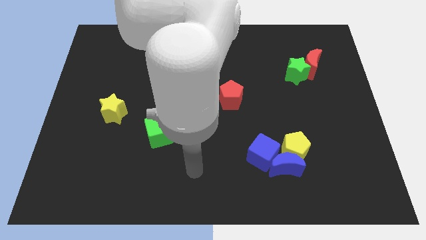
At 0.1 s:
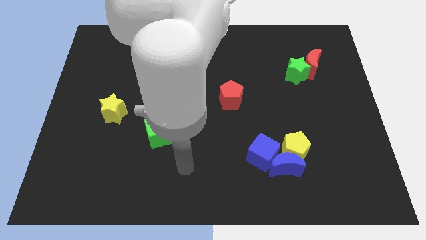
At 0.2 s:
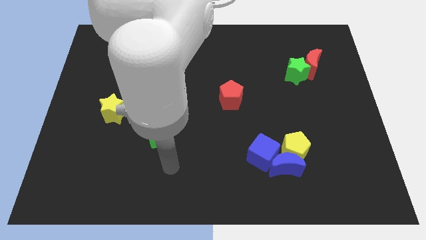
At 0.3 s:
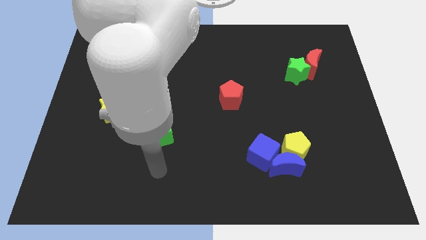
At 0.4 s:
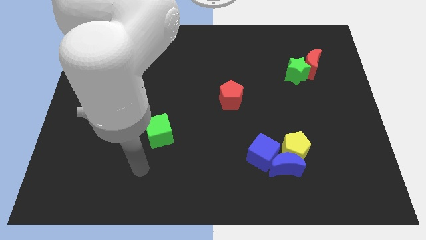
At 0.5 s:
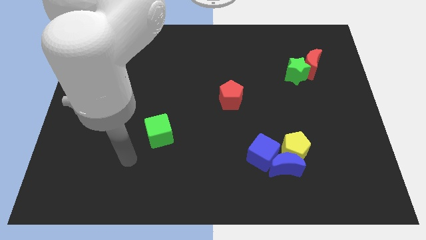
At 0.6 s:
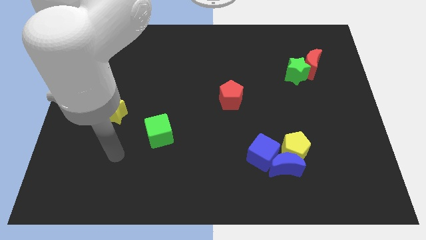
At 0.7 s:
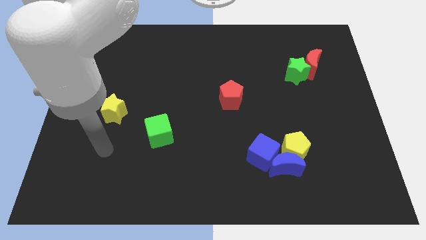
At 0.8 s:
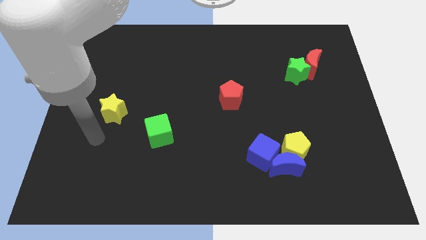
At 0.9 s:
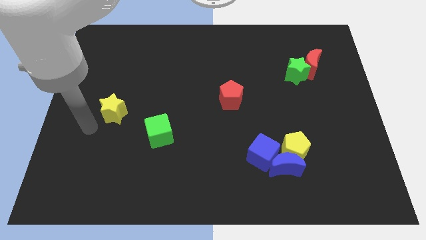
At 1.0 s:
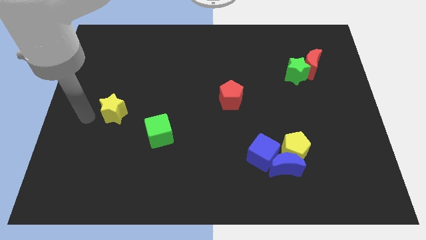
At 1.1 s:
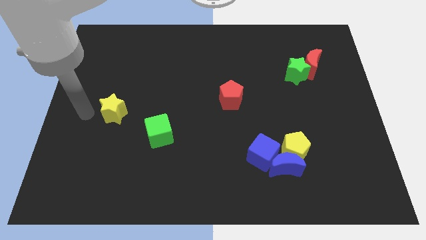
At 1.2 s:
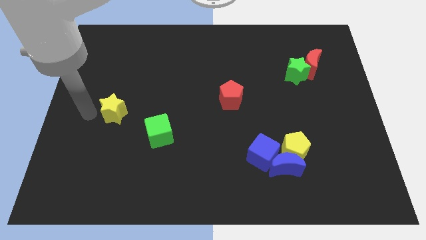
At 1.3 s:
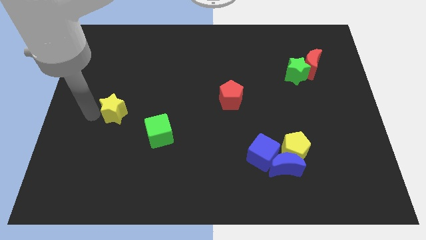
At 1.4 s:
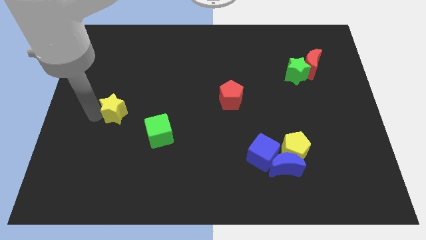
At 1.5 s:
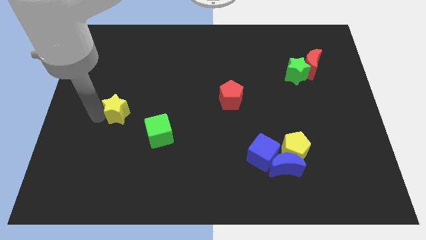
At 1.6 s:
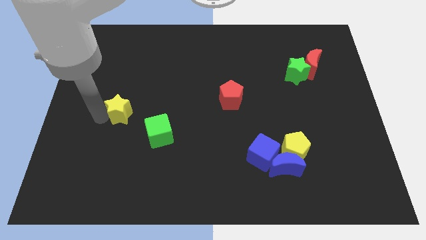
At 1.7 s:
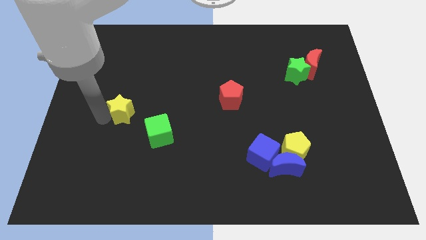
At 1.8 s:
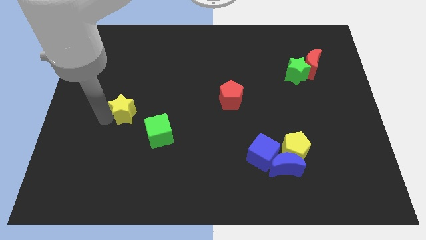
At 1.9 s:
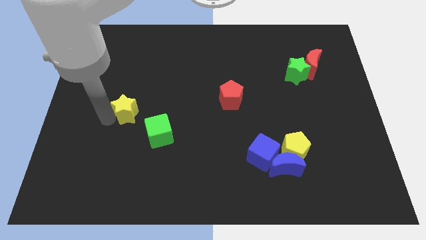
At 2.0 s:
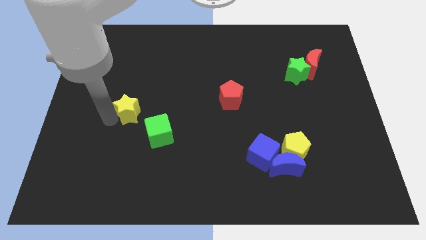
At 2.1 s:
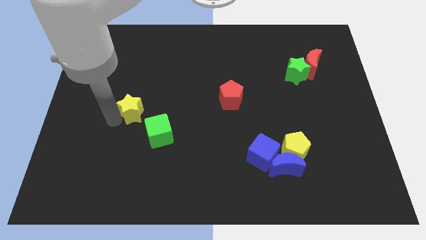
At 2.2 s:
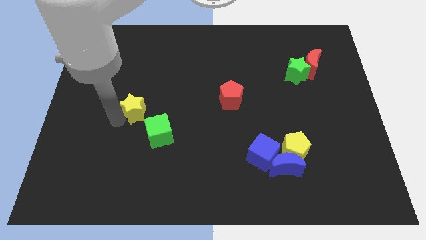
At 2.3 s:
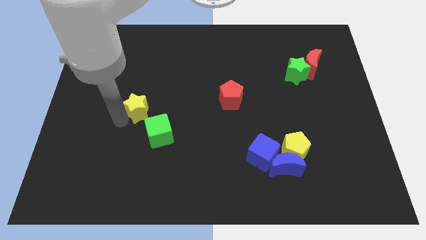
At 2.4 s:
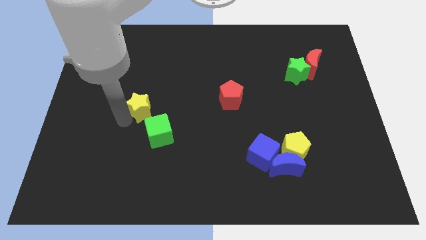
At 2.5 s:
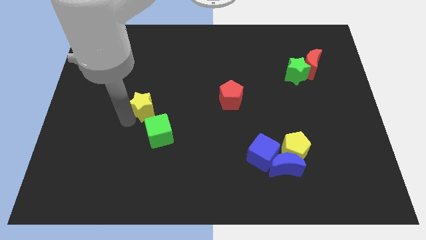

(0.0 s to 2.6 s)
push the yellow star right slightly

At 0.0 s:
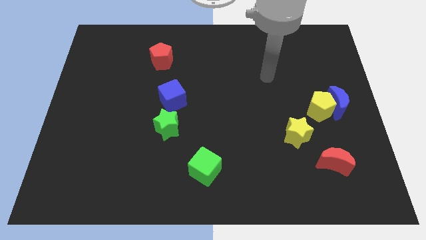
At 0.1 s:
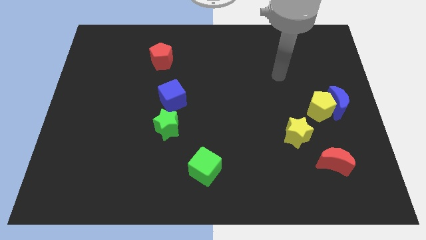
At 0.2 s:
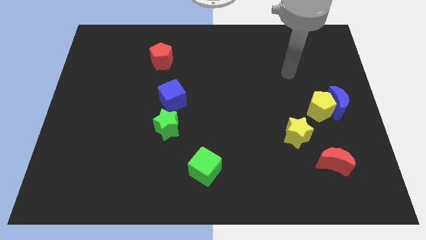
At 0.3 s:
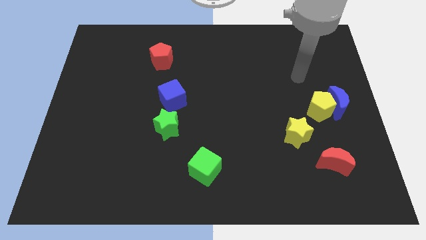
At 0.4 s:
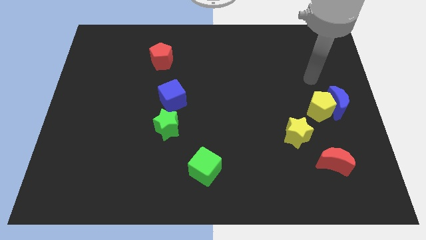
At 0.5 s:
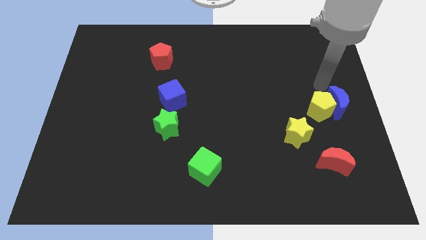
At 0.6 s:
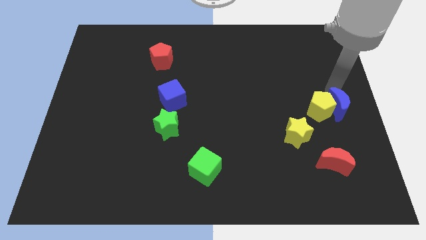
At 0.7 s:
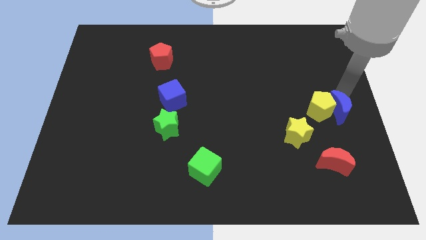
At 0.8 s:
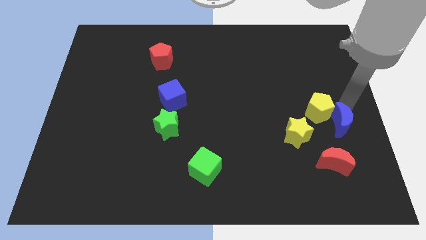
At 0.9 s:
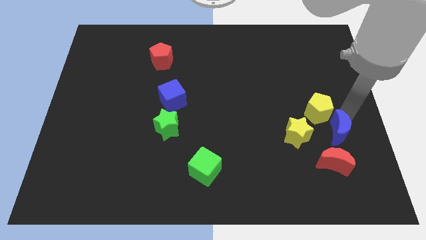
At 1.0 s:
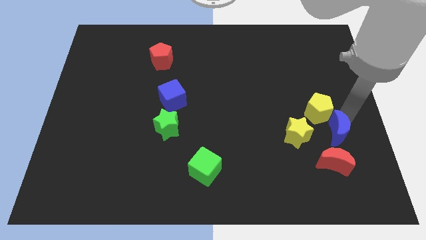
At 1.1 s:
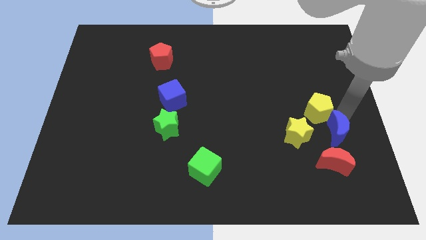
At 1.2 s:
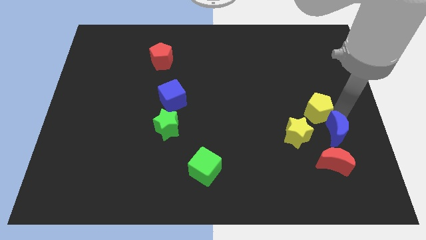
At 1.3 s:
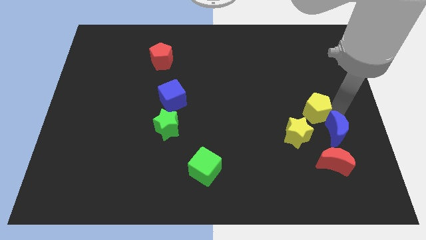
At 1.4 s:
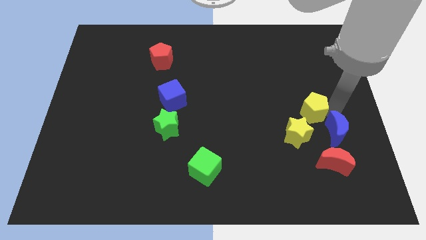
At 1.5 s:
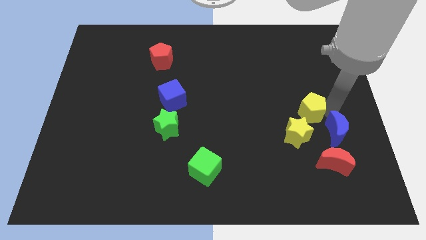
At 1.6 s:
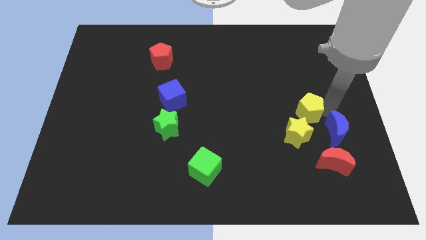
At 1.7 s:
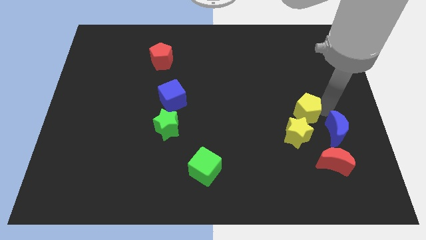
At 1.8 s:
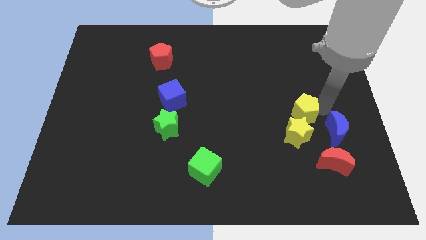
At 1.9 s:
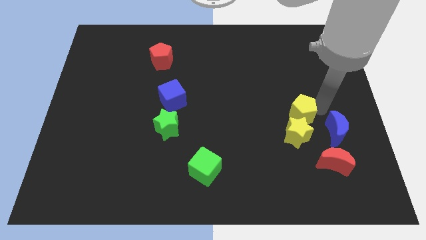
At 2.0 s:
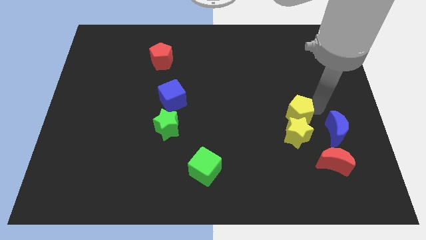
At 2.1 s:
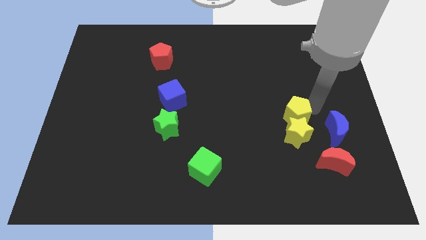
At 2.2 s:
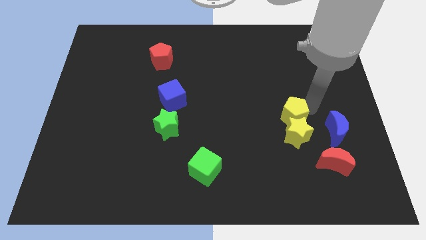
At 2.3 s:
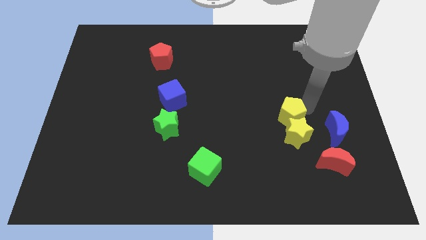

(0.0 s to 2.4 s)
slightly slide the yellow pentagon to the left

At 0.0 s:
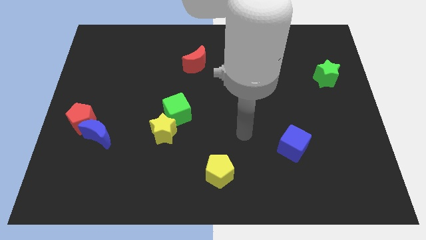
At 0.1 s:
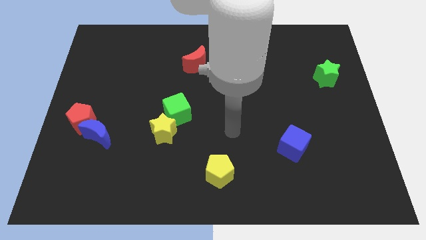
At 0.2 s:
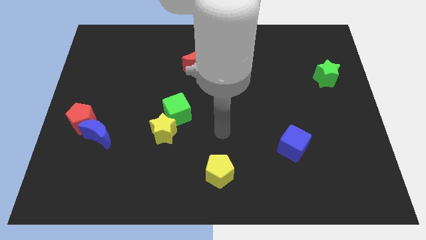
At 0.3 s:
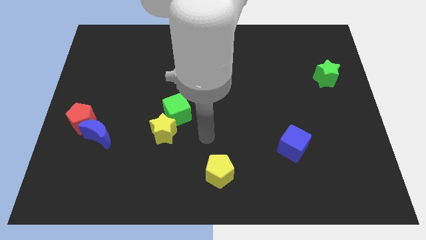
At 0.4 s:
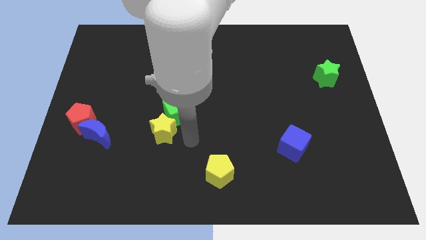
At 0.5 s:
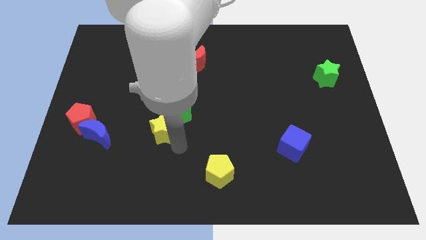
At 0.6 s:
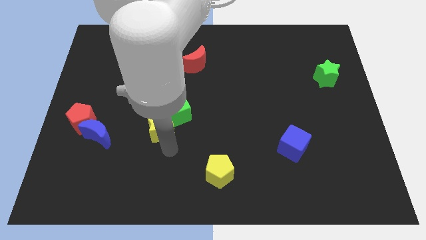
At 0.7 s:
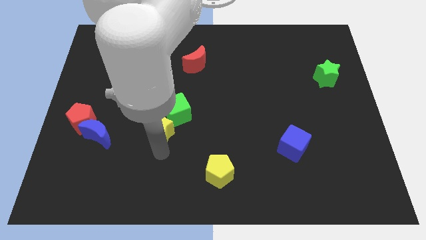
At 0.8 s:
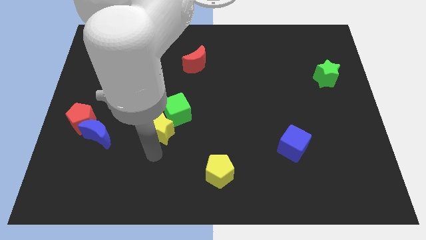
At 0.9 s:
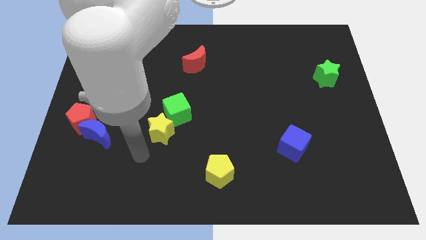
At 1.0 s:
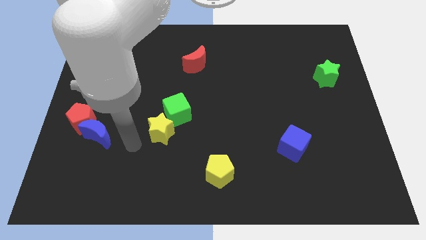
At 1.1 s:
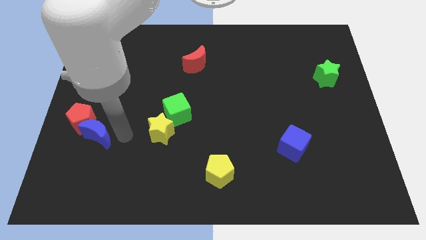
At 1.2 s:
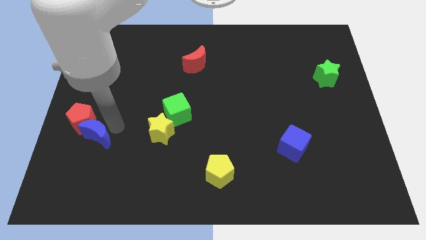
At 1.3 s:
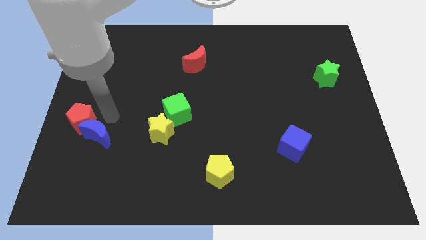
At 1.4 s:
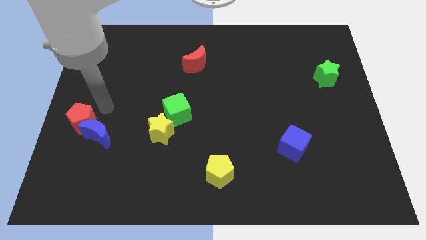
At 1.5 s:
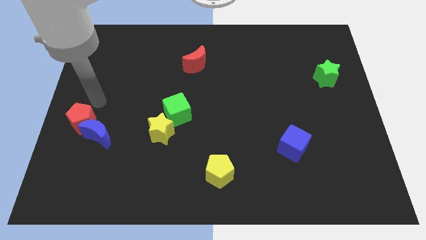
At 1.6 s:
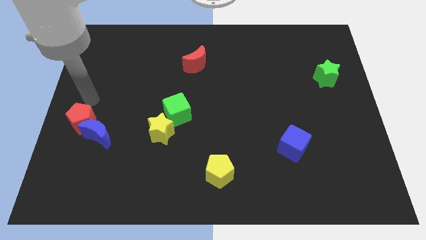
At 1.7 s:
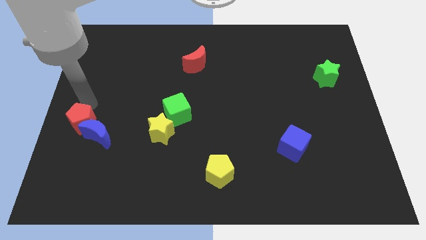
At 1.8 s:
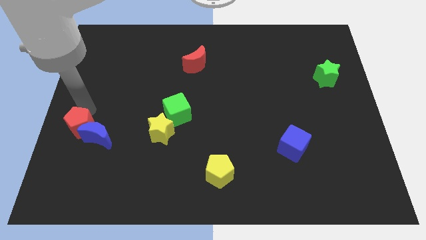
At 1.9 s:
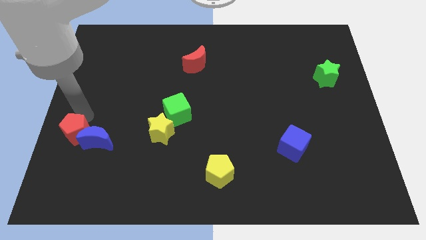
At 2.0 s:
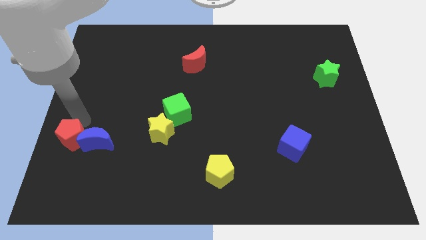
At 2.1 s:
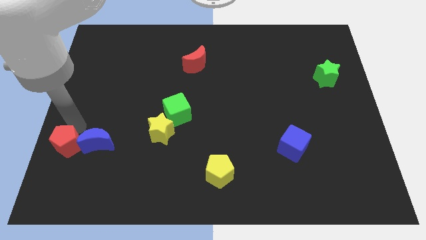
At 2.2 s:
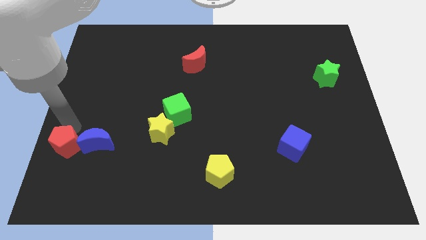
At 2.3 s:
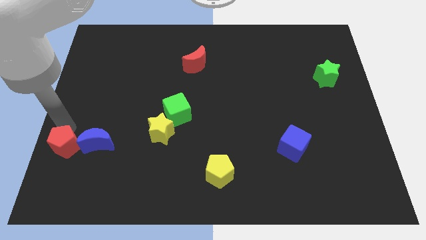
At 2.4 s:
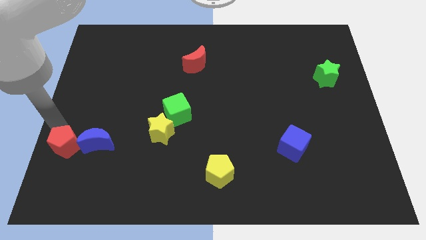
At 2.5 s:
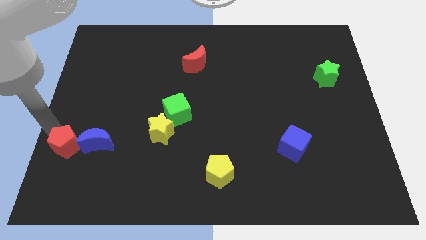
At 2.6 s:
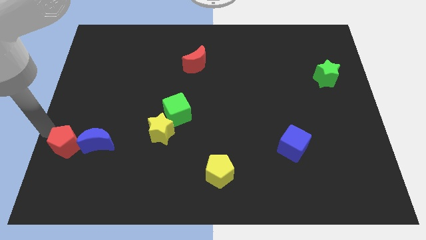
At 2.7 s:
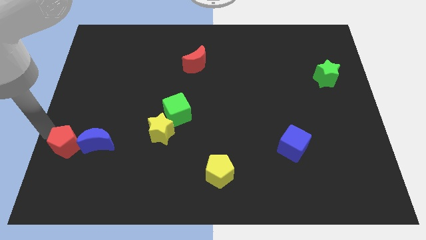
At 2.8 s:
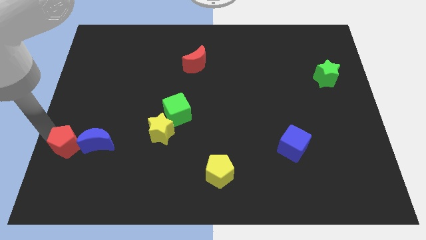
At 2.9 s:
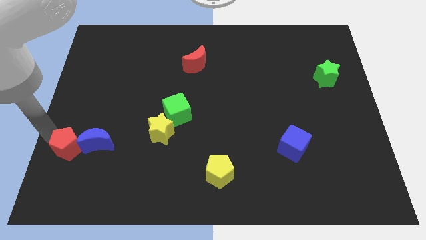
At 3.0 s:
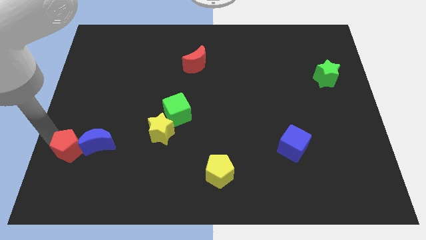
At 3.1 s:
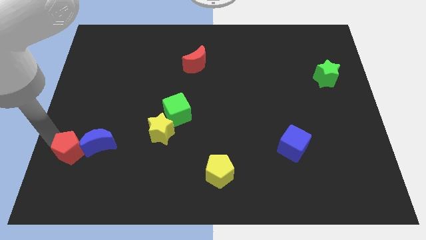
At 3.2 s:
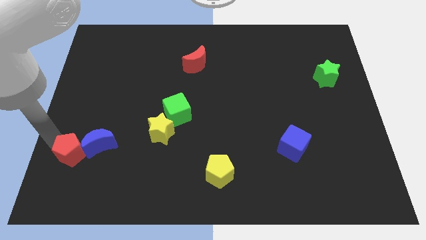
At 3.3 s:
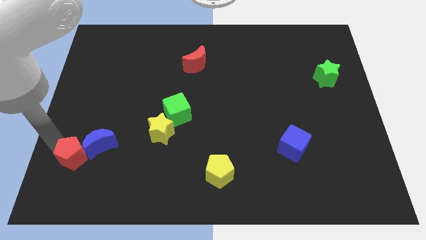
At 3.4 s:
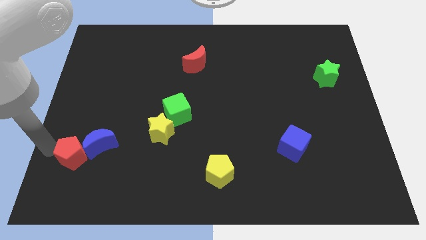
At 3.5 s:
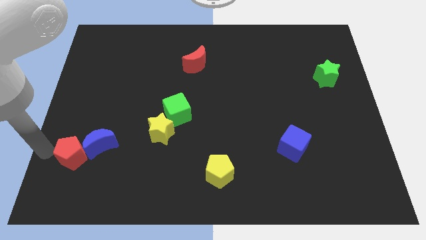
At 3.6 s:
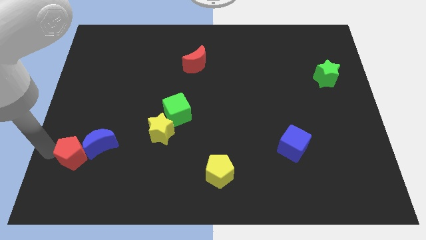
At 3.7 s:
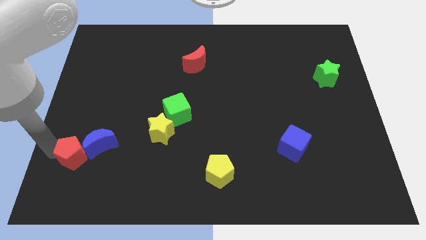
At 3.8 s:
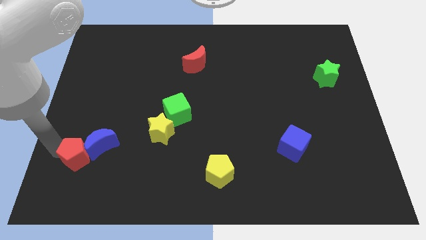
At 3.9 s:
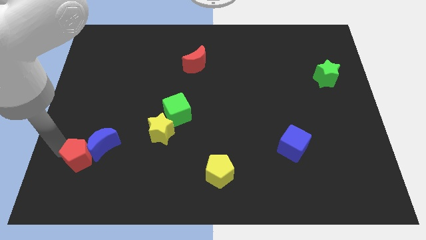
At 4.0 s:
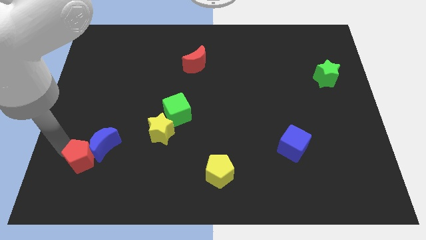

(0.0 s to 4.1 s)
slide the red pentagon down and right diagonally a little bit
